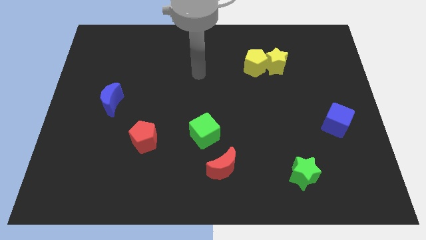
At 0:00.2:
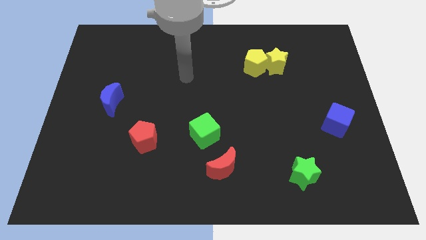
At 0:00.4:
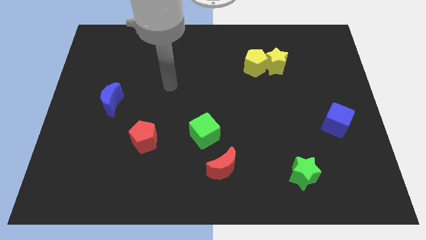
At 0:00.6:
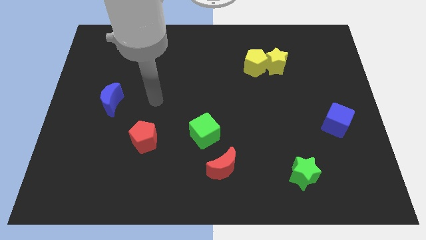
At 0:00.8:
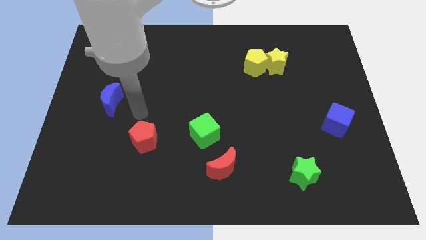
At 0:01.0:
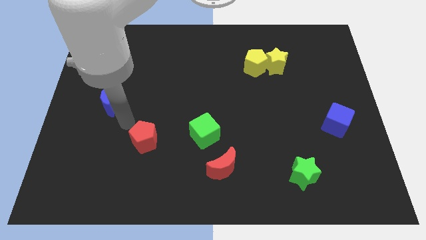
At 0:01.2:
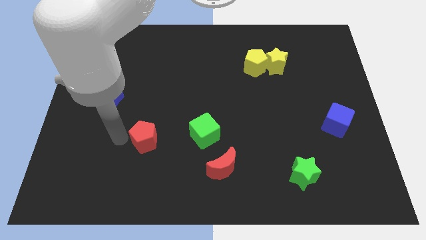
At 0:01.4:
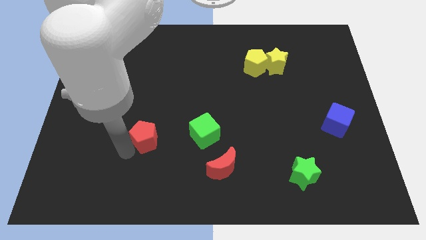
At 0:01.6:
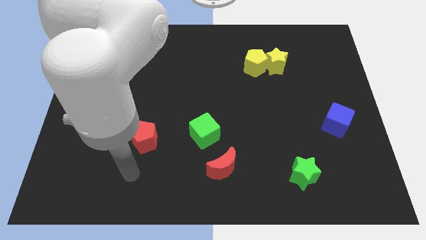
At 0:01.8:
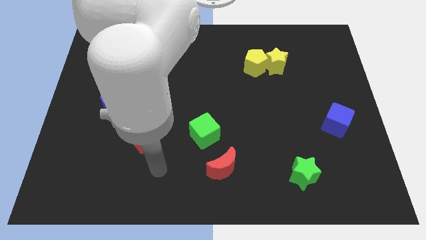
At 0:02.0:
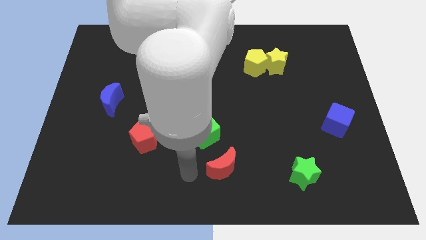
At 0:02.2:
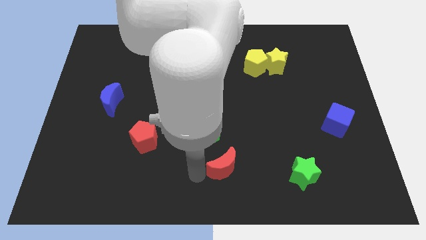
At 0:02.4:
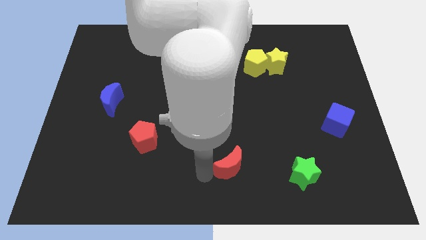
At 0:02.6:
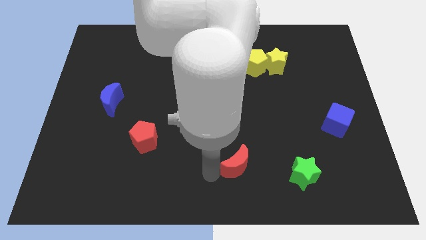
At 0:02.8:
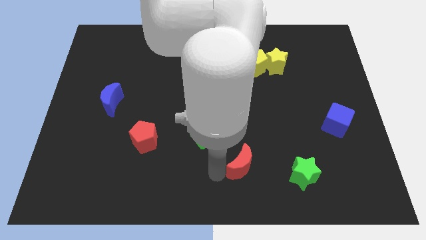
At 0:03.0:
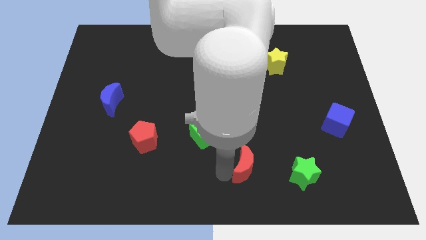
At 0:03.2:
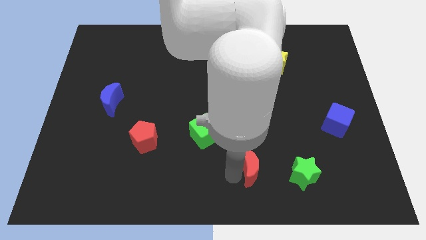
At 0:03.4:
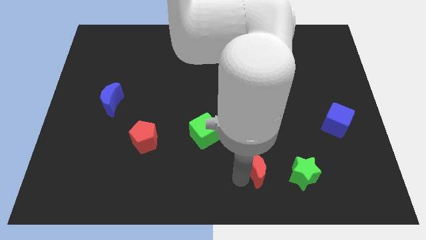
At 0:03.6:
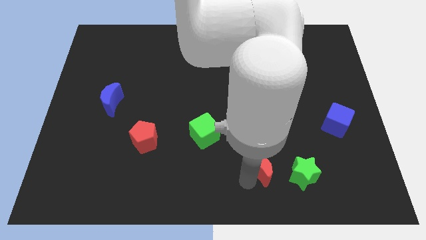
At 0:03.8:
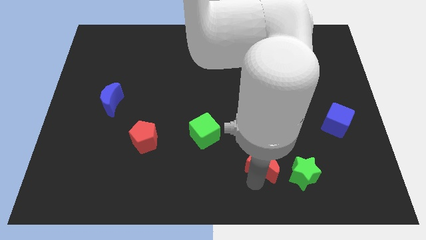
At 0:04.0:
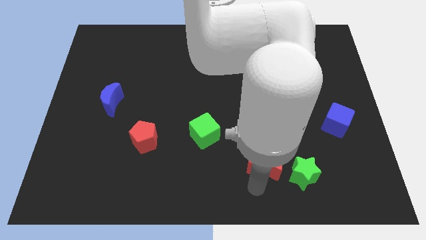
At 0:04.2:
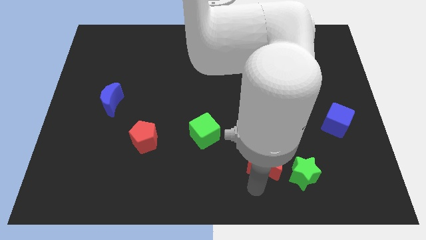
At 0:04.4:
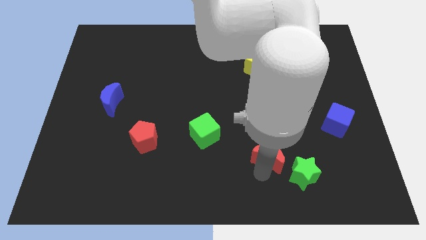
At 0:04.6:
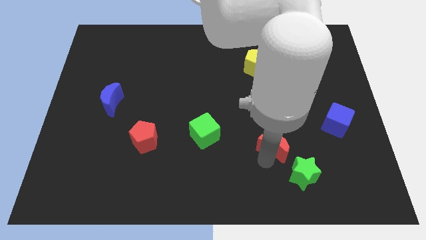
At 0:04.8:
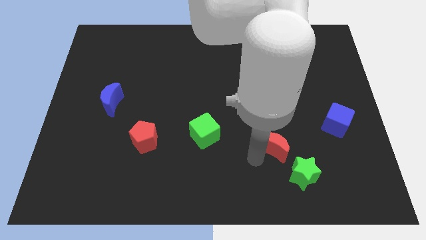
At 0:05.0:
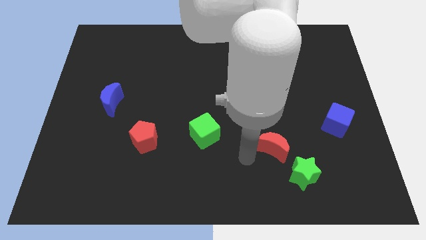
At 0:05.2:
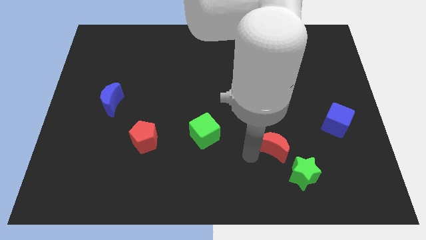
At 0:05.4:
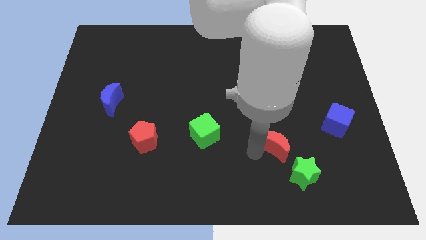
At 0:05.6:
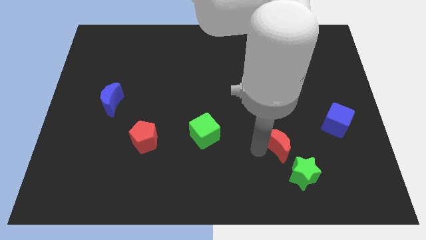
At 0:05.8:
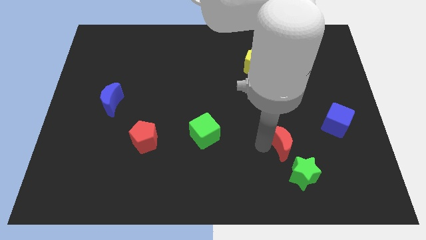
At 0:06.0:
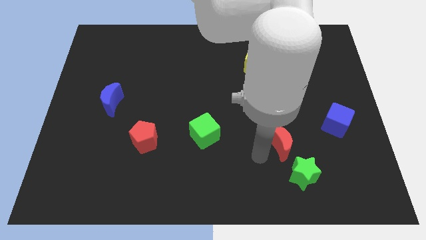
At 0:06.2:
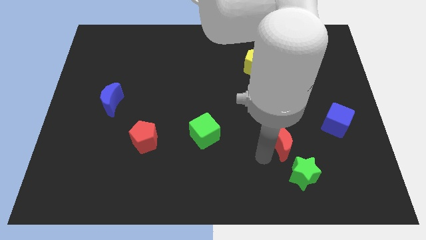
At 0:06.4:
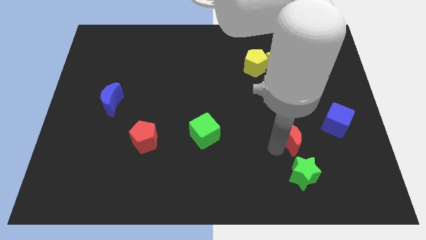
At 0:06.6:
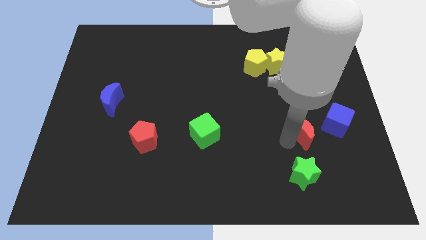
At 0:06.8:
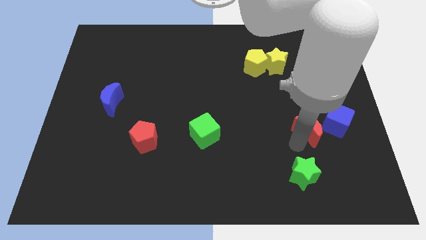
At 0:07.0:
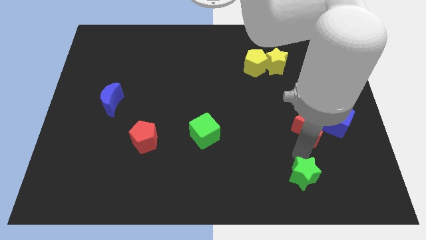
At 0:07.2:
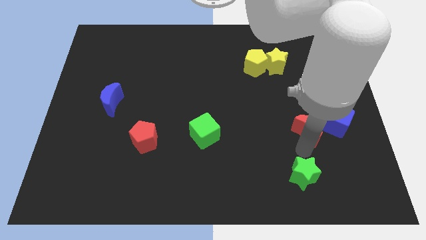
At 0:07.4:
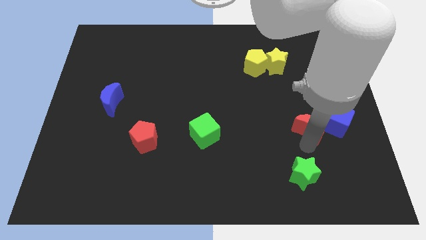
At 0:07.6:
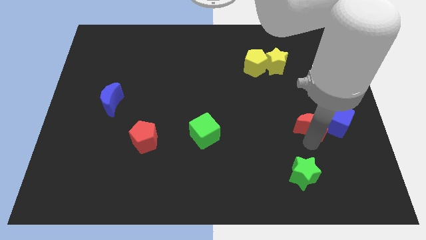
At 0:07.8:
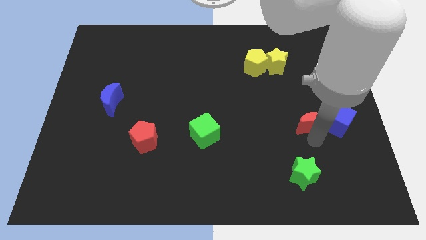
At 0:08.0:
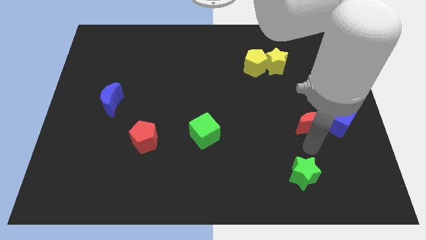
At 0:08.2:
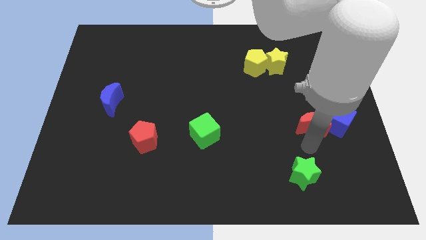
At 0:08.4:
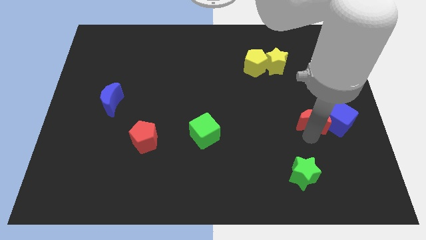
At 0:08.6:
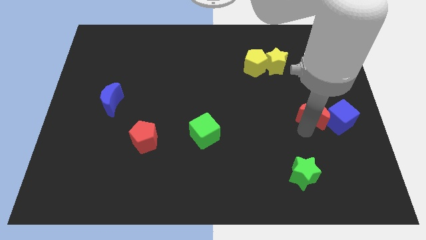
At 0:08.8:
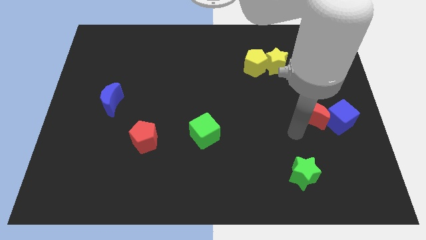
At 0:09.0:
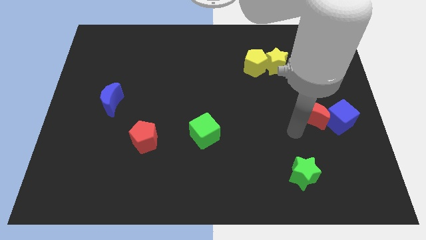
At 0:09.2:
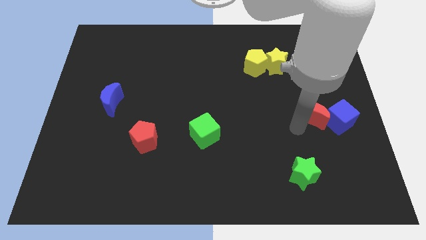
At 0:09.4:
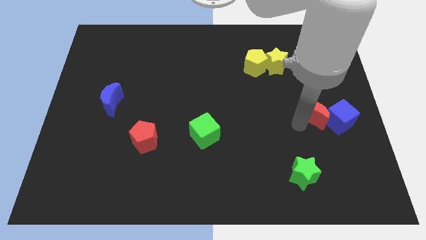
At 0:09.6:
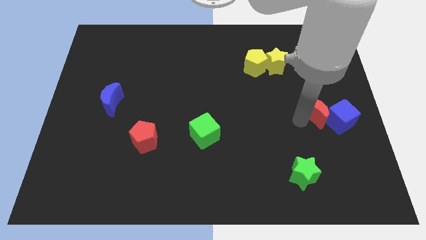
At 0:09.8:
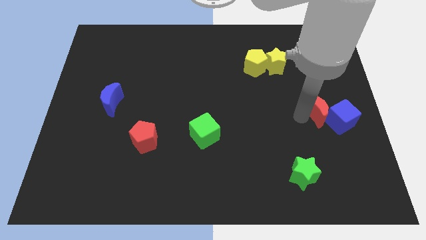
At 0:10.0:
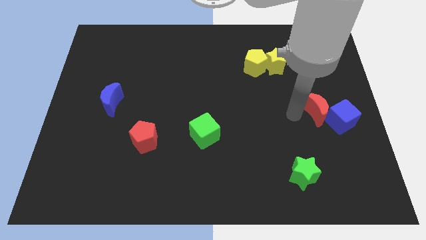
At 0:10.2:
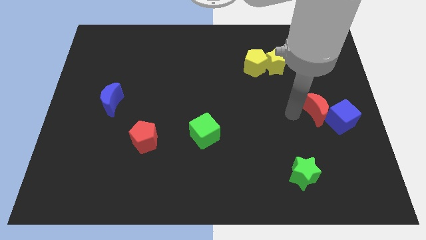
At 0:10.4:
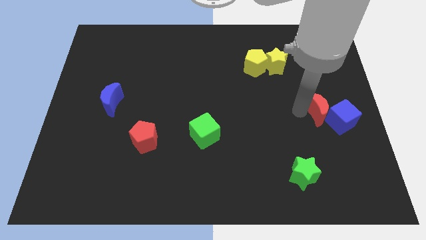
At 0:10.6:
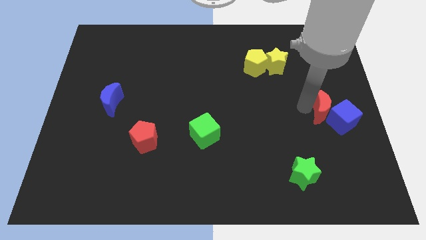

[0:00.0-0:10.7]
move the red moon to the right side

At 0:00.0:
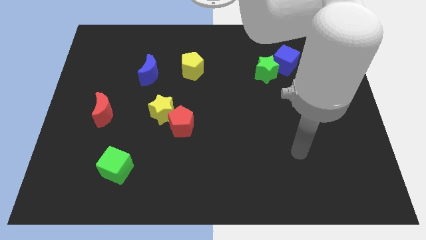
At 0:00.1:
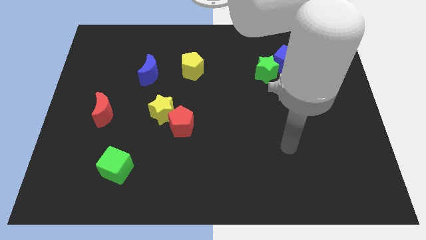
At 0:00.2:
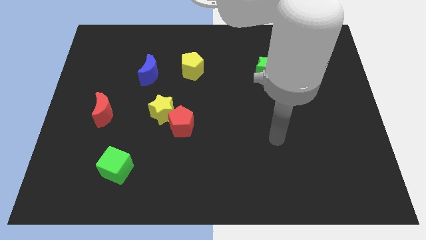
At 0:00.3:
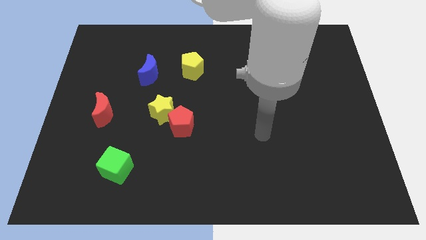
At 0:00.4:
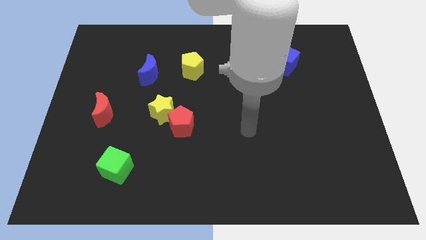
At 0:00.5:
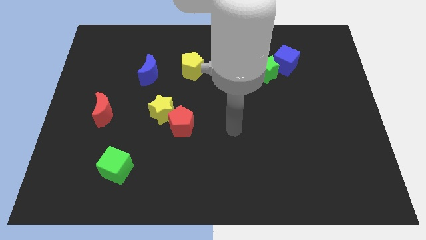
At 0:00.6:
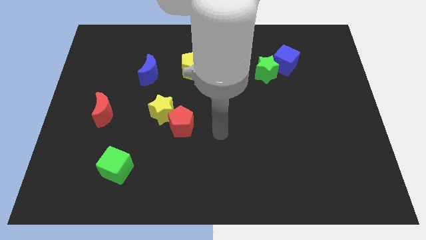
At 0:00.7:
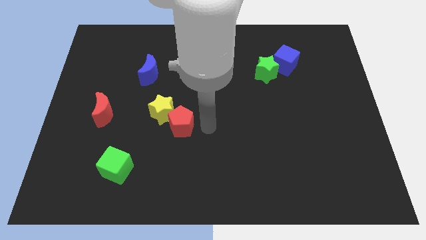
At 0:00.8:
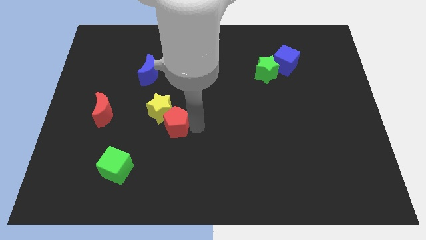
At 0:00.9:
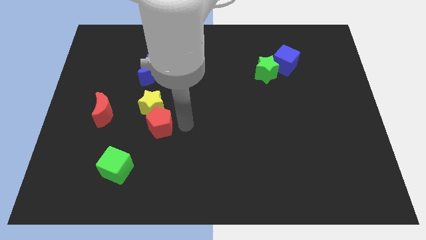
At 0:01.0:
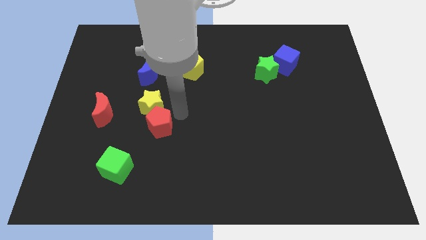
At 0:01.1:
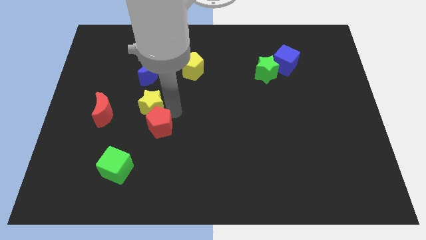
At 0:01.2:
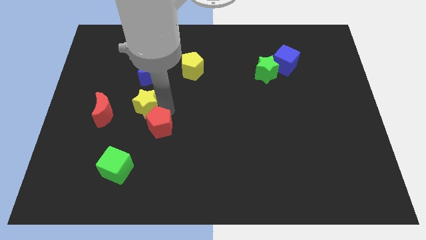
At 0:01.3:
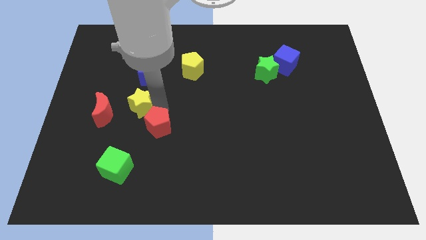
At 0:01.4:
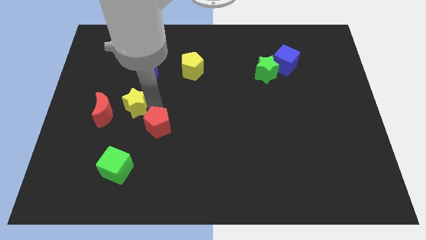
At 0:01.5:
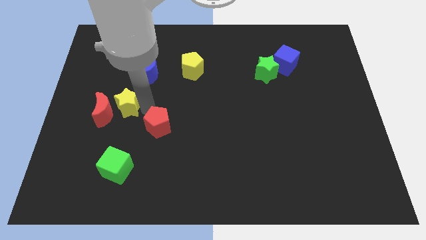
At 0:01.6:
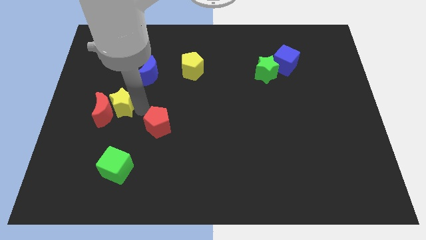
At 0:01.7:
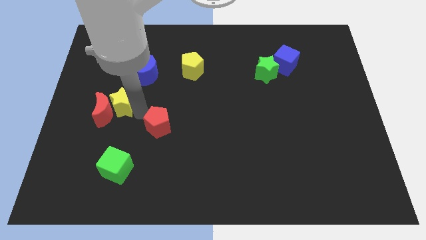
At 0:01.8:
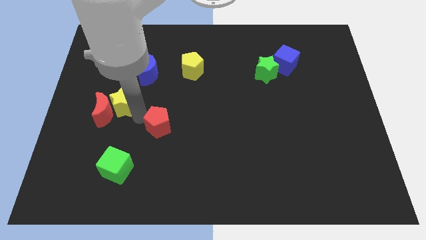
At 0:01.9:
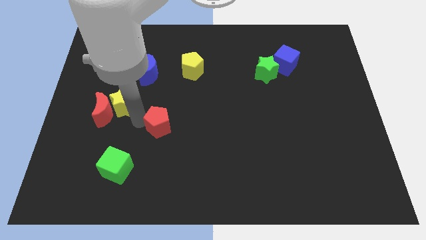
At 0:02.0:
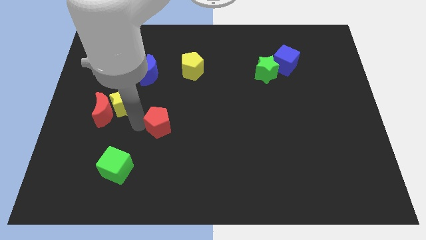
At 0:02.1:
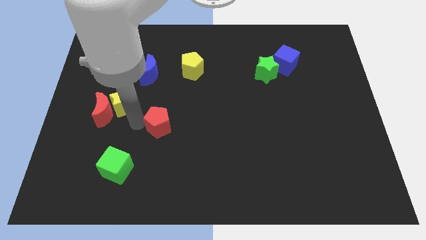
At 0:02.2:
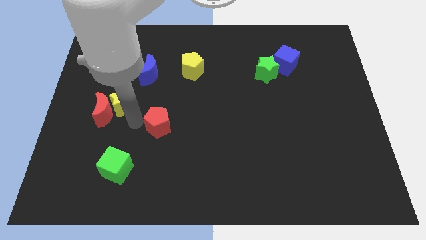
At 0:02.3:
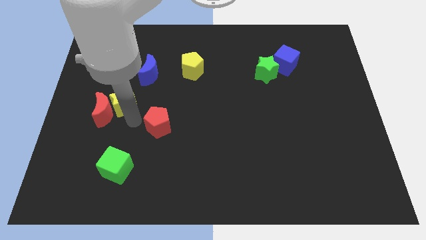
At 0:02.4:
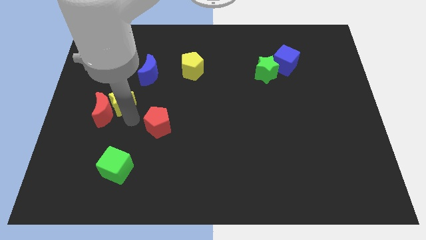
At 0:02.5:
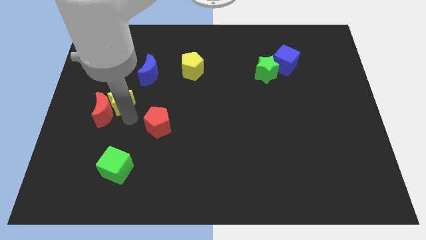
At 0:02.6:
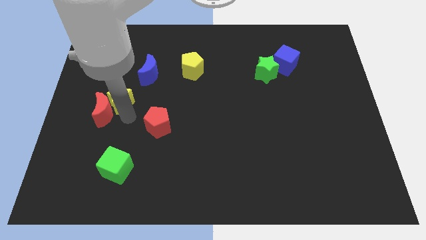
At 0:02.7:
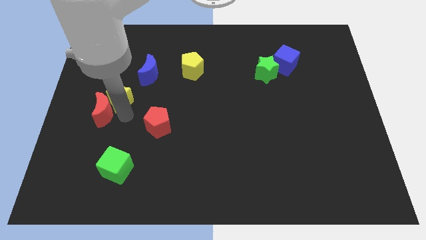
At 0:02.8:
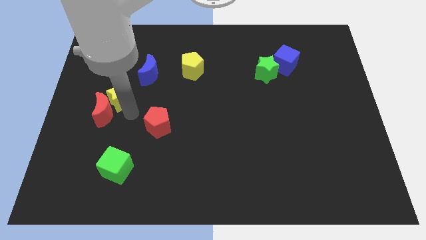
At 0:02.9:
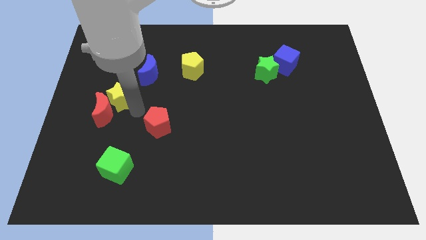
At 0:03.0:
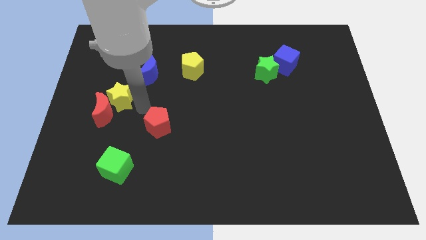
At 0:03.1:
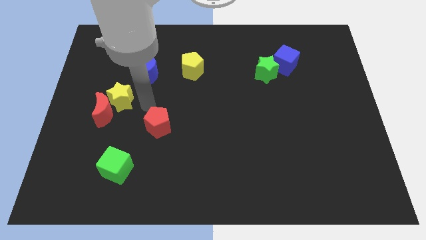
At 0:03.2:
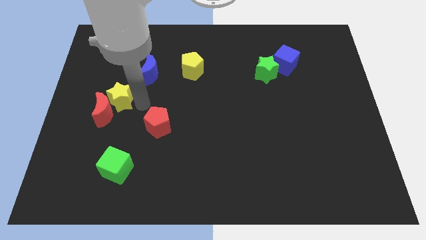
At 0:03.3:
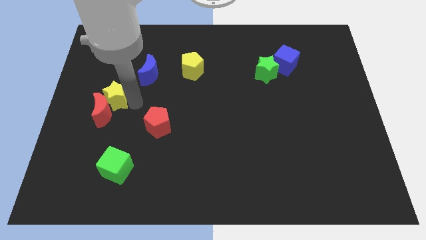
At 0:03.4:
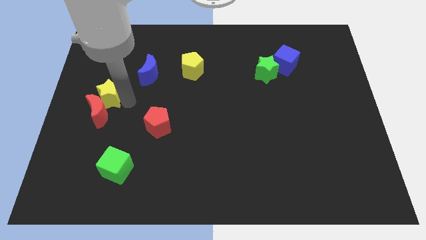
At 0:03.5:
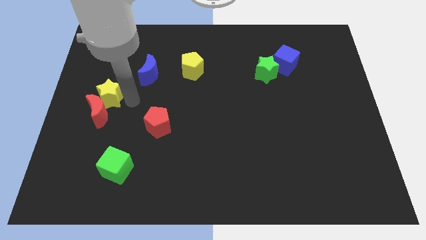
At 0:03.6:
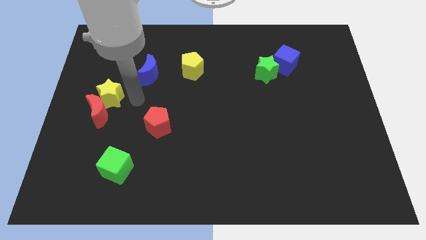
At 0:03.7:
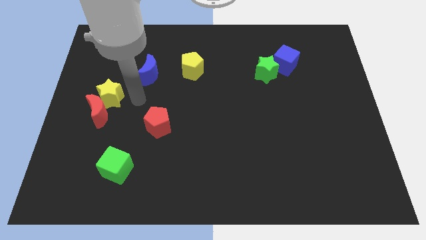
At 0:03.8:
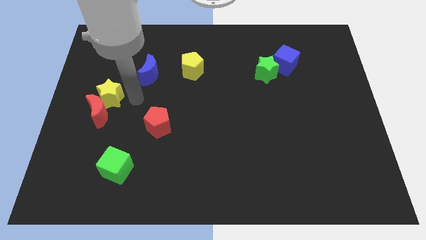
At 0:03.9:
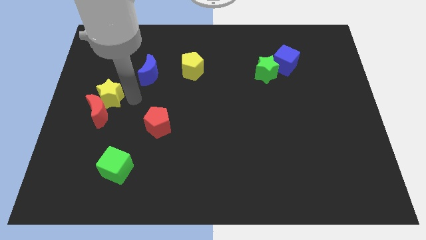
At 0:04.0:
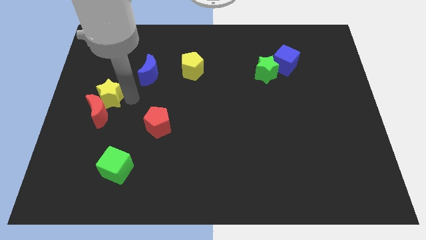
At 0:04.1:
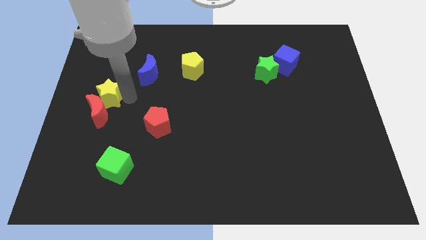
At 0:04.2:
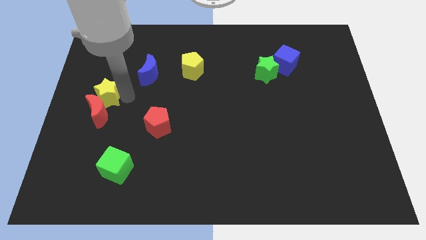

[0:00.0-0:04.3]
slide the yellow star to the left side of the board
